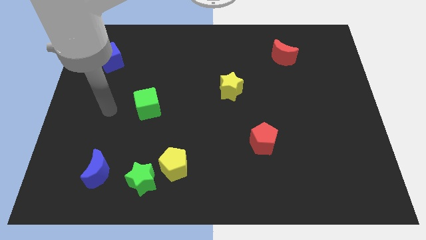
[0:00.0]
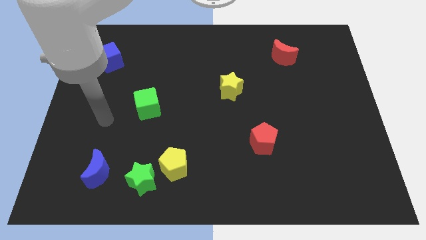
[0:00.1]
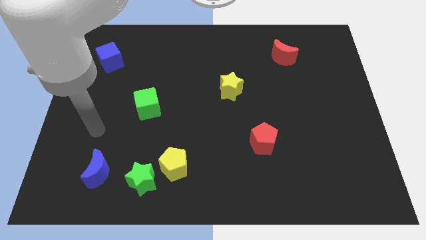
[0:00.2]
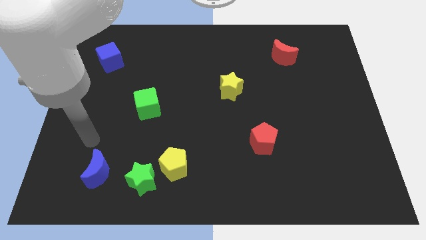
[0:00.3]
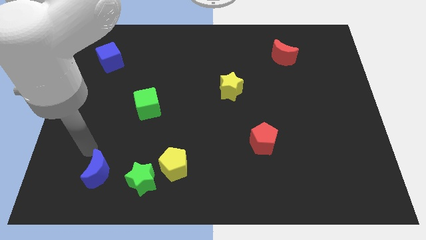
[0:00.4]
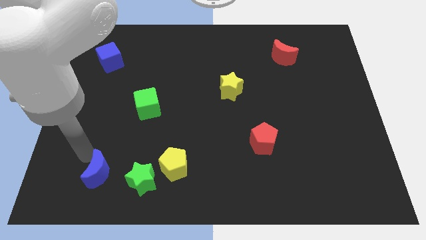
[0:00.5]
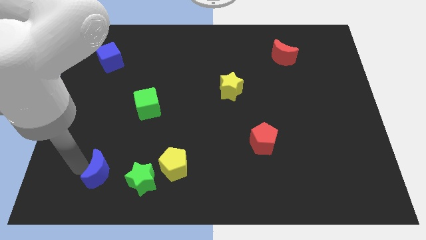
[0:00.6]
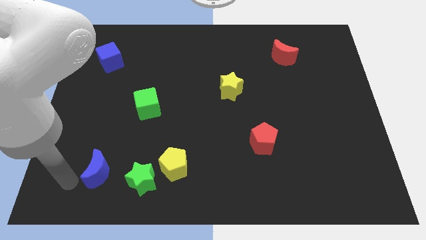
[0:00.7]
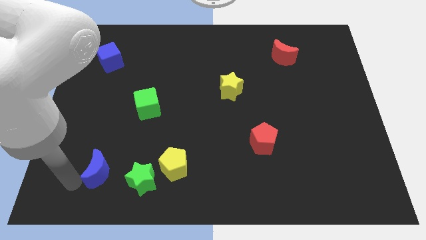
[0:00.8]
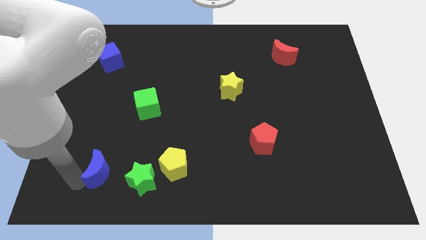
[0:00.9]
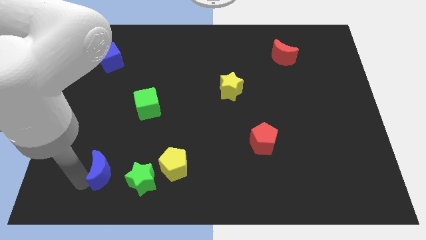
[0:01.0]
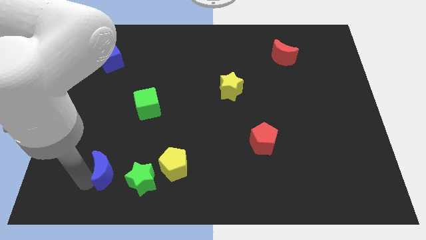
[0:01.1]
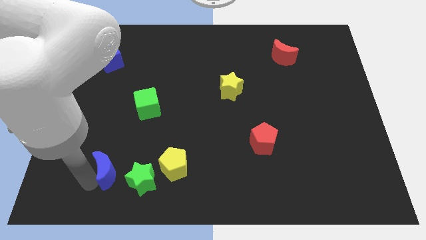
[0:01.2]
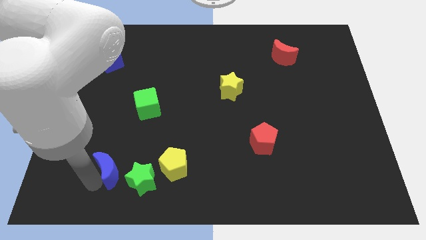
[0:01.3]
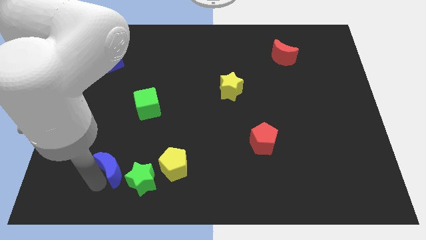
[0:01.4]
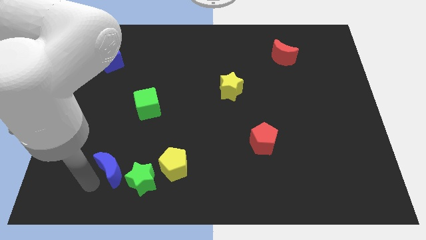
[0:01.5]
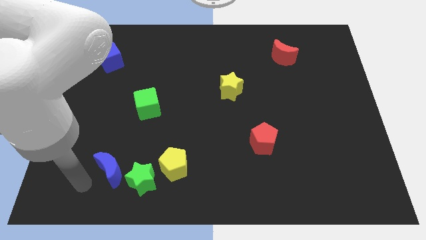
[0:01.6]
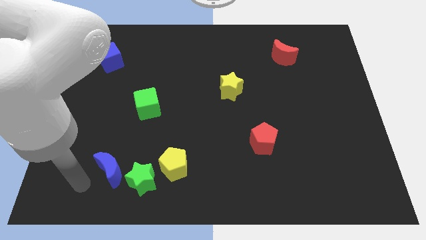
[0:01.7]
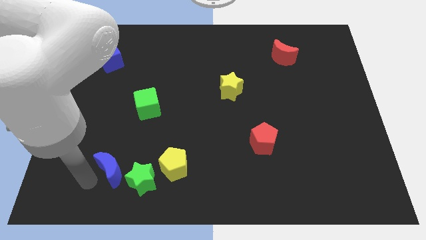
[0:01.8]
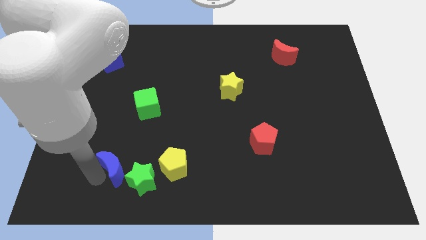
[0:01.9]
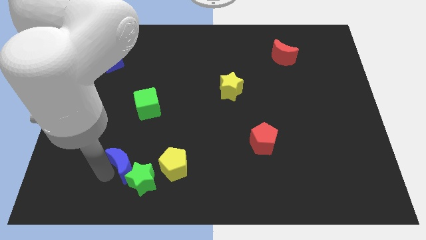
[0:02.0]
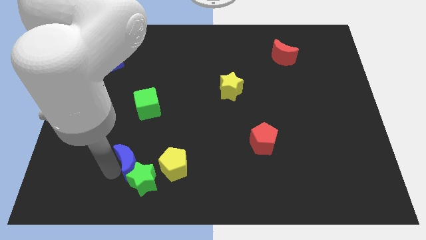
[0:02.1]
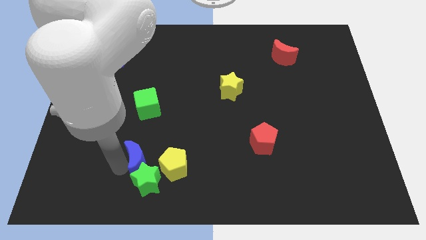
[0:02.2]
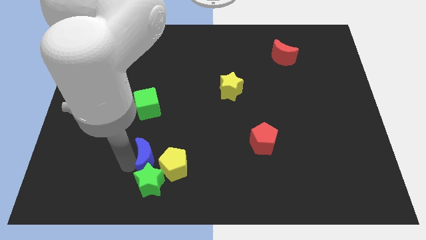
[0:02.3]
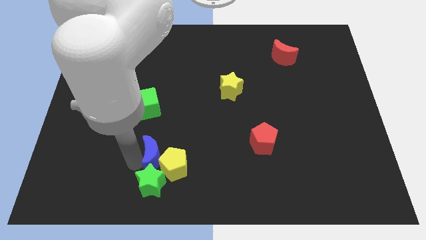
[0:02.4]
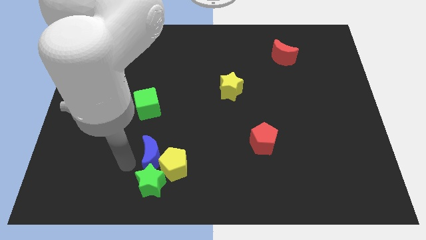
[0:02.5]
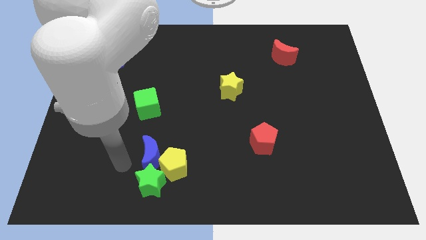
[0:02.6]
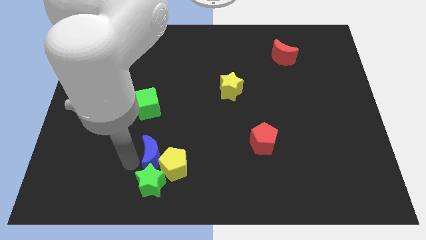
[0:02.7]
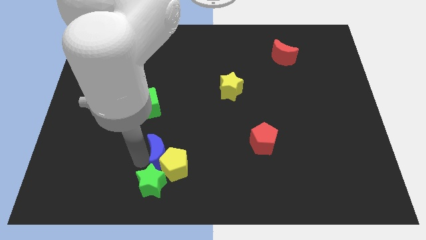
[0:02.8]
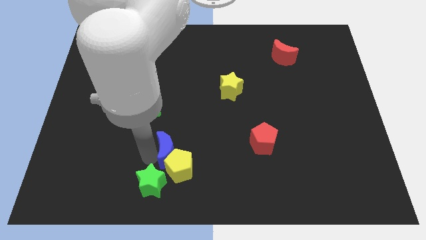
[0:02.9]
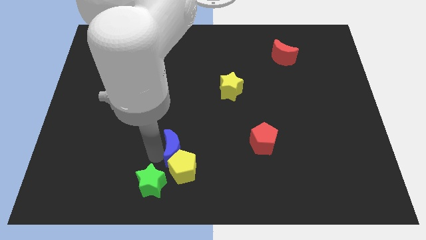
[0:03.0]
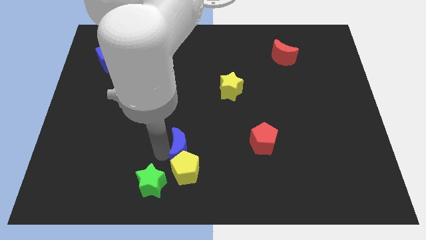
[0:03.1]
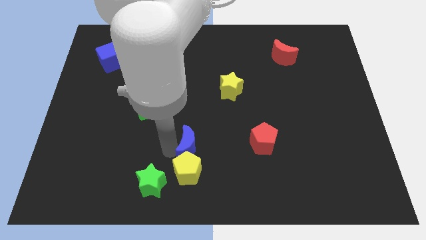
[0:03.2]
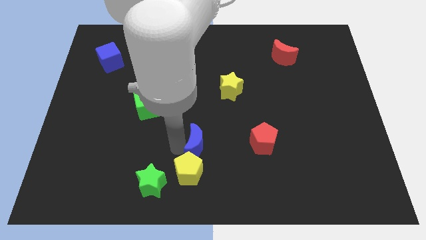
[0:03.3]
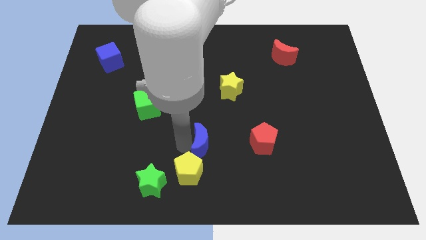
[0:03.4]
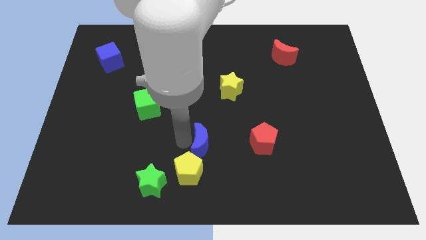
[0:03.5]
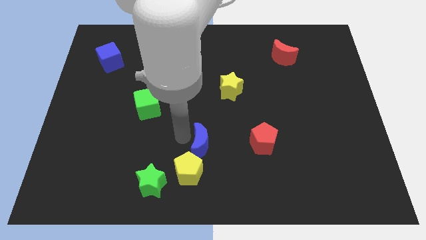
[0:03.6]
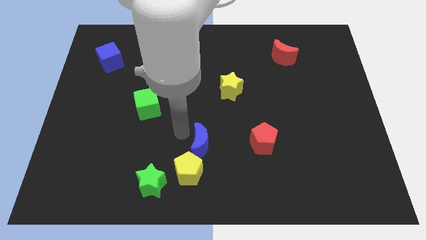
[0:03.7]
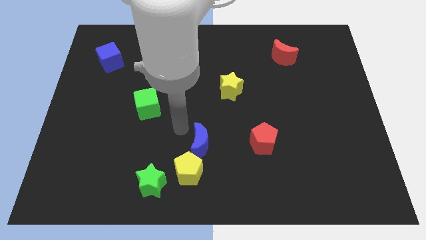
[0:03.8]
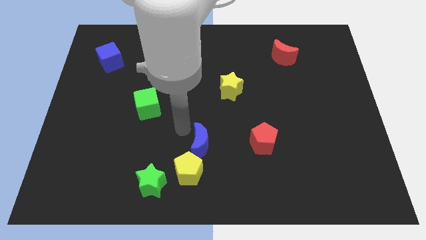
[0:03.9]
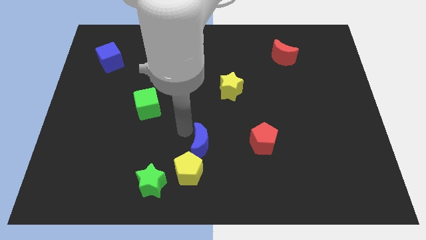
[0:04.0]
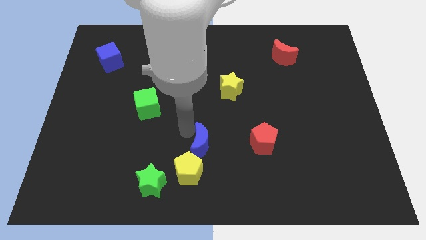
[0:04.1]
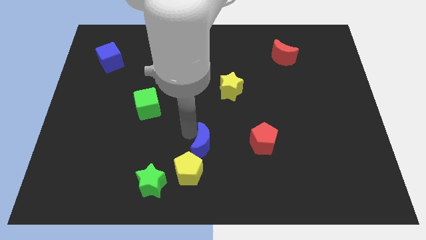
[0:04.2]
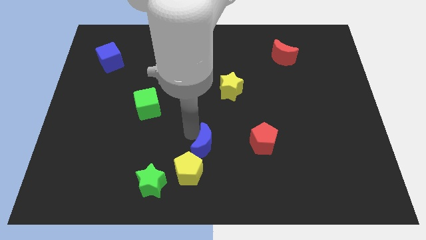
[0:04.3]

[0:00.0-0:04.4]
slide the blue moon to the right

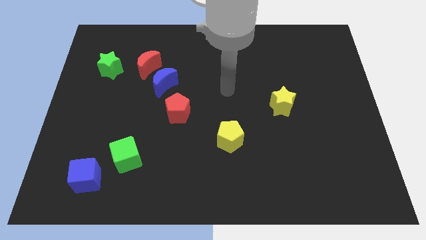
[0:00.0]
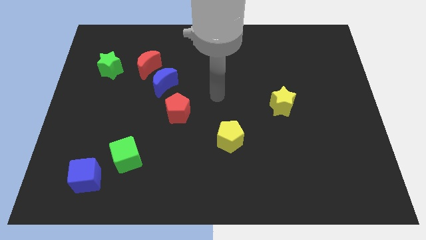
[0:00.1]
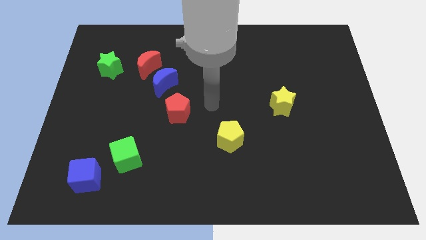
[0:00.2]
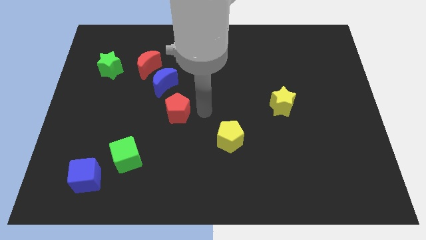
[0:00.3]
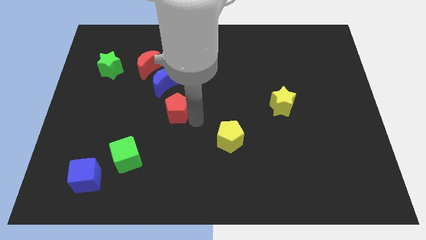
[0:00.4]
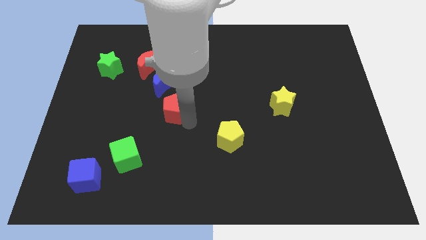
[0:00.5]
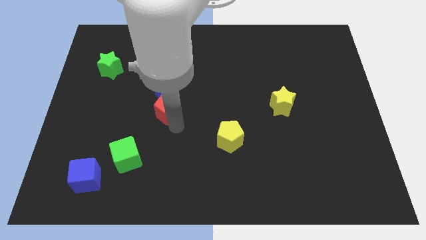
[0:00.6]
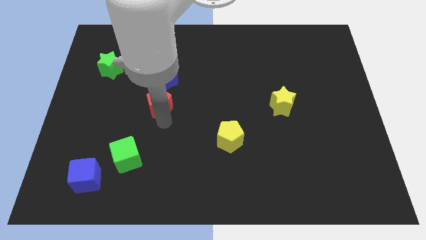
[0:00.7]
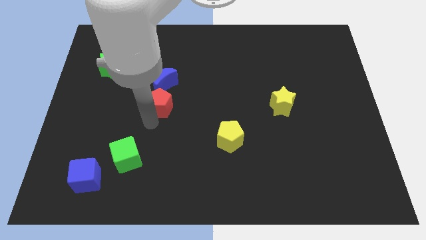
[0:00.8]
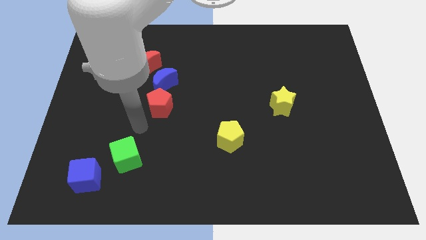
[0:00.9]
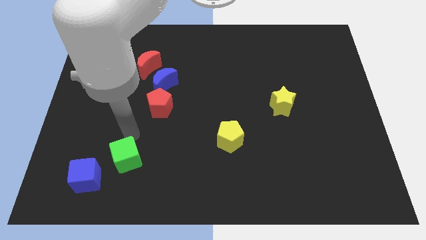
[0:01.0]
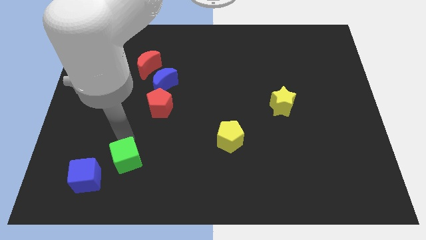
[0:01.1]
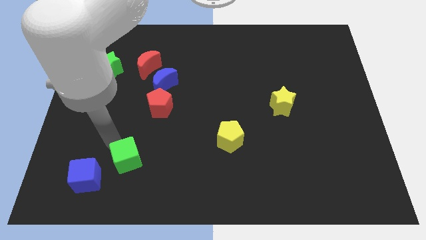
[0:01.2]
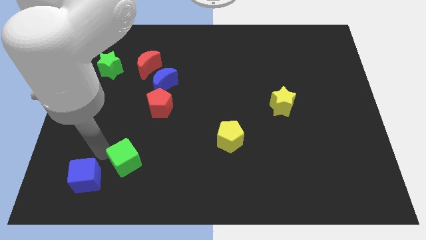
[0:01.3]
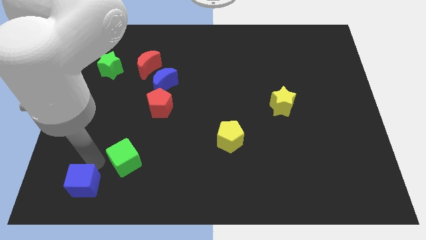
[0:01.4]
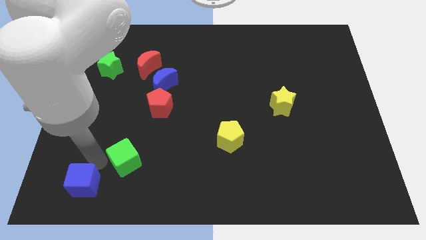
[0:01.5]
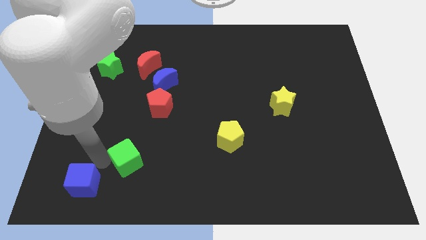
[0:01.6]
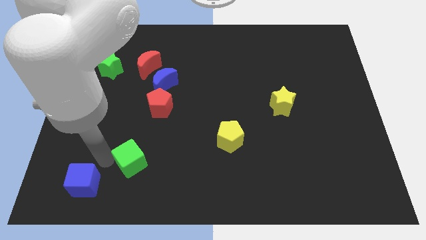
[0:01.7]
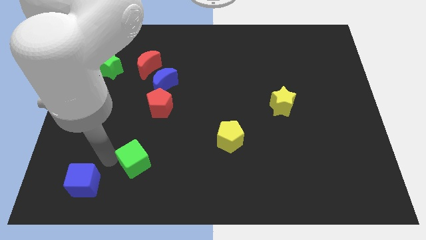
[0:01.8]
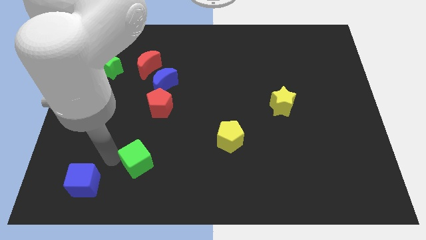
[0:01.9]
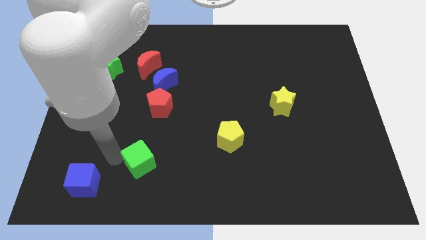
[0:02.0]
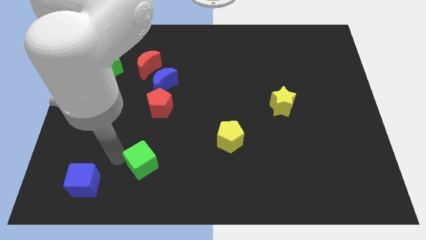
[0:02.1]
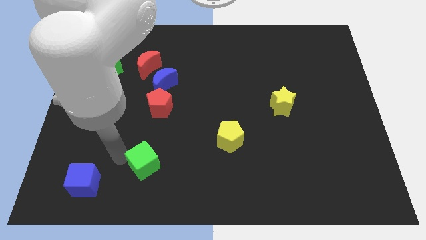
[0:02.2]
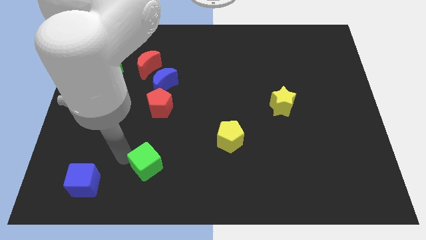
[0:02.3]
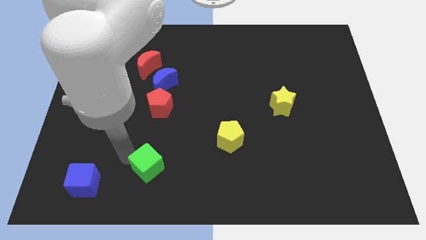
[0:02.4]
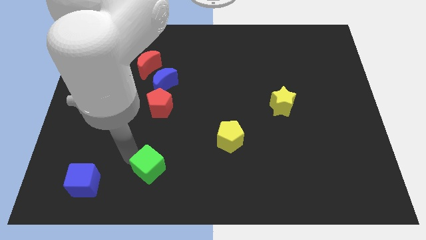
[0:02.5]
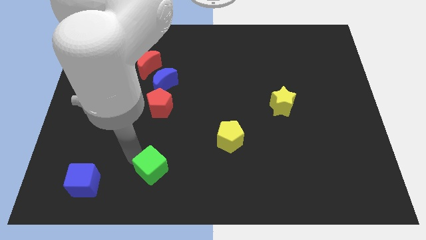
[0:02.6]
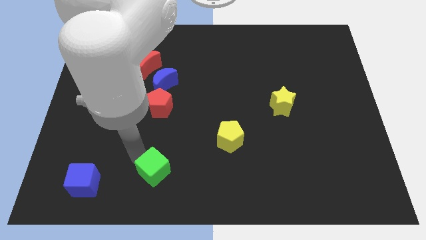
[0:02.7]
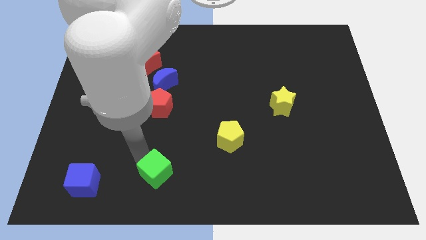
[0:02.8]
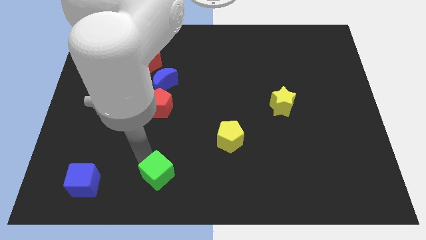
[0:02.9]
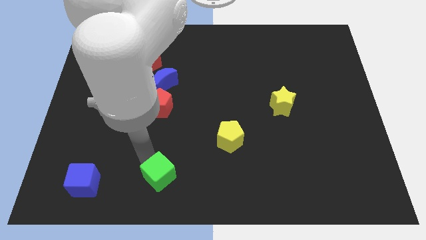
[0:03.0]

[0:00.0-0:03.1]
push the green cube right slightly

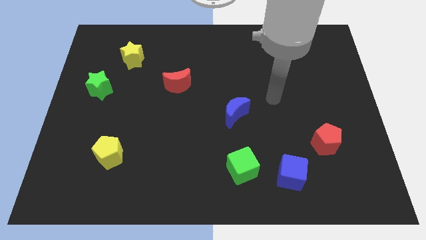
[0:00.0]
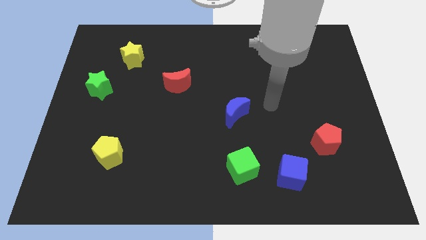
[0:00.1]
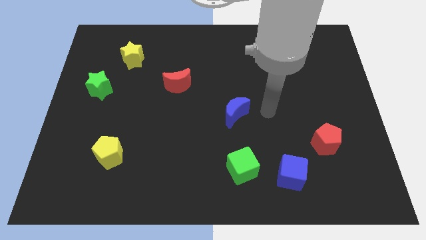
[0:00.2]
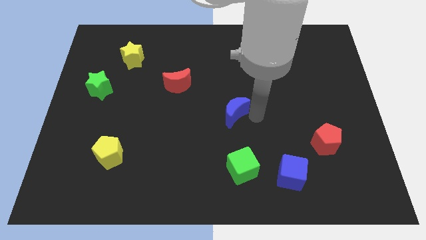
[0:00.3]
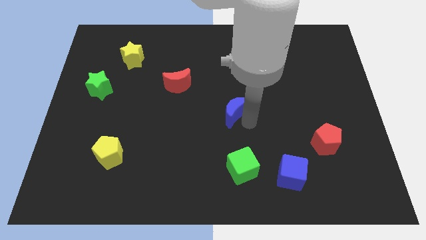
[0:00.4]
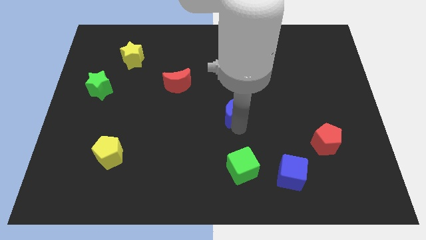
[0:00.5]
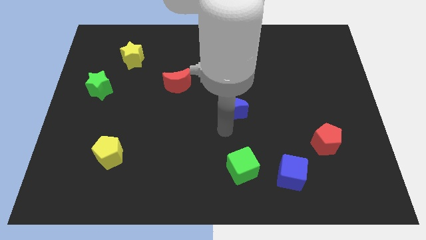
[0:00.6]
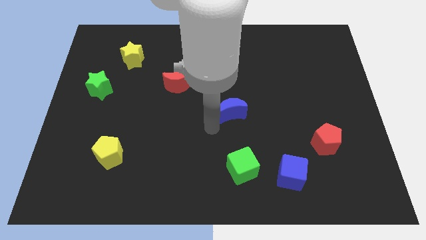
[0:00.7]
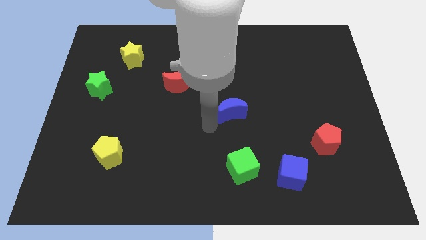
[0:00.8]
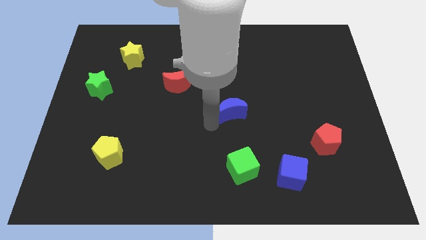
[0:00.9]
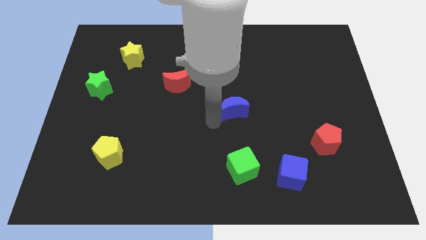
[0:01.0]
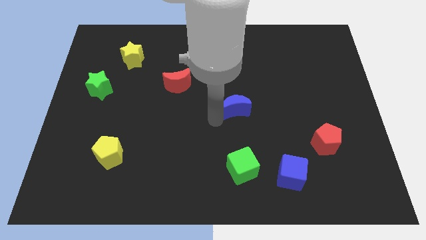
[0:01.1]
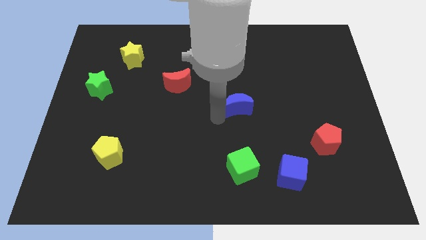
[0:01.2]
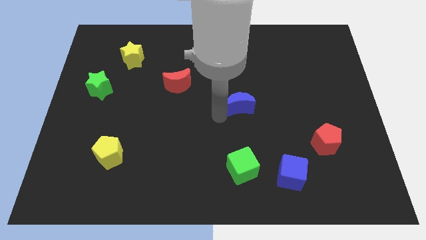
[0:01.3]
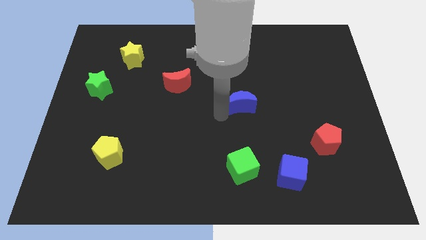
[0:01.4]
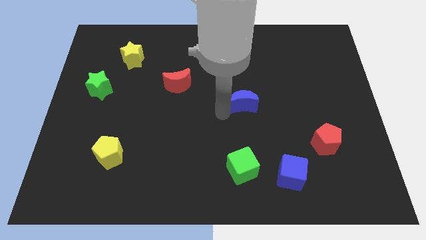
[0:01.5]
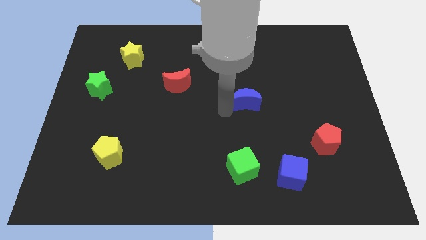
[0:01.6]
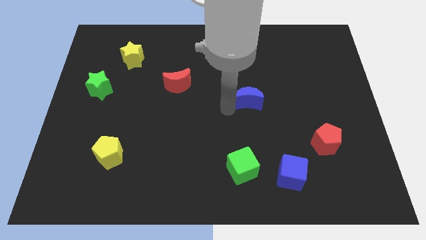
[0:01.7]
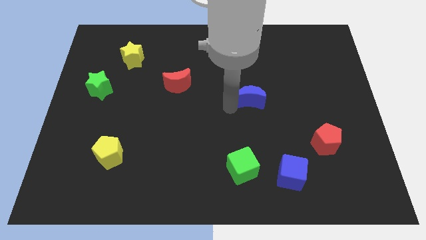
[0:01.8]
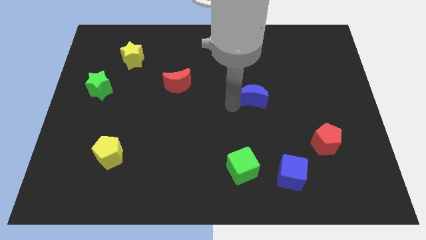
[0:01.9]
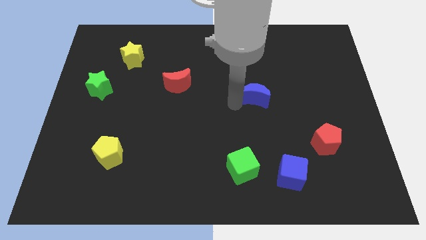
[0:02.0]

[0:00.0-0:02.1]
slide the blue moon up and to the right a little bit
